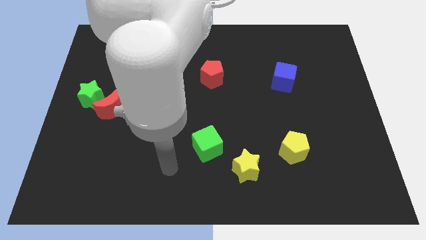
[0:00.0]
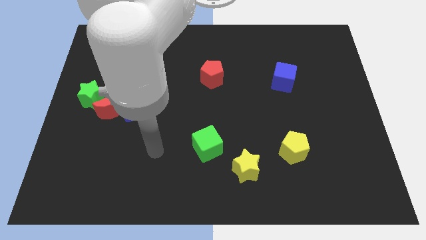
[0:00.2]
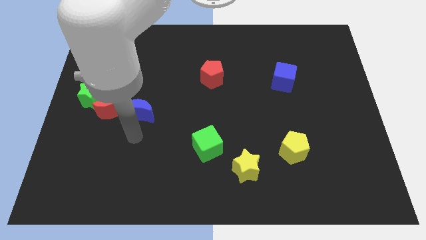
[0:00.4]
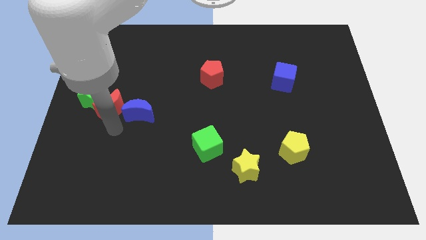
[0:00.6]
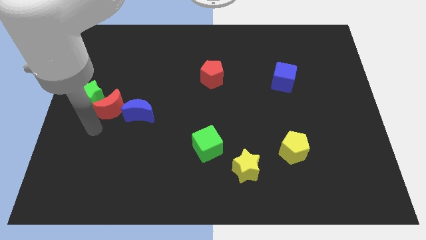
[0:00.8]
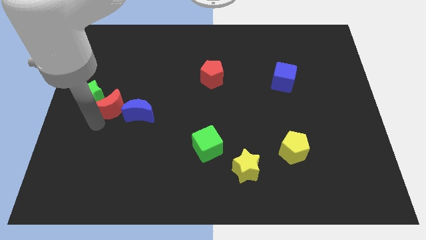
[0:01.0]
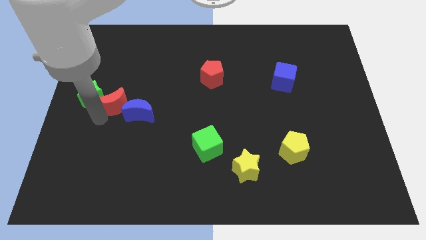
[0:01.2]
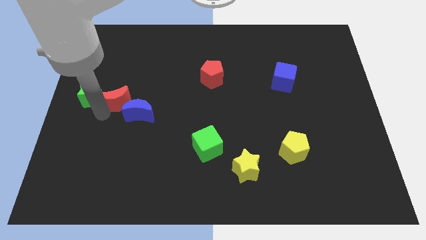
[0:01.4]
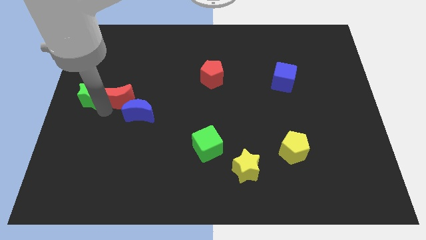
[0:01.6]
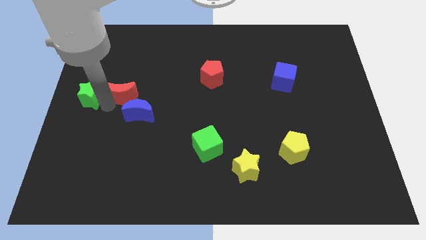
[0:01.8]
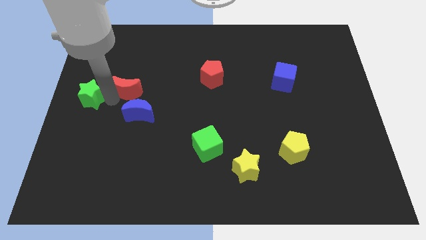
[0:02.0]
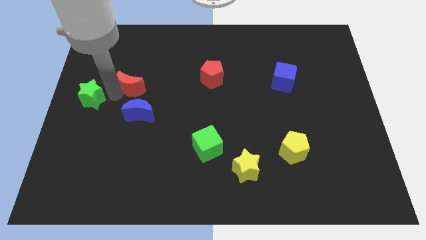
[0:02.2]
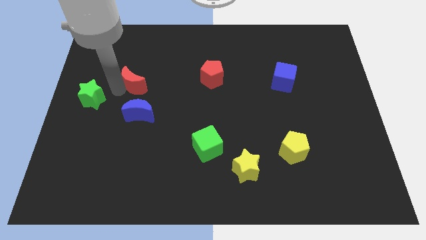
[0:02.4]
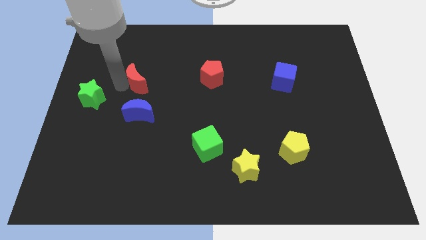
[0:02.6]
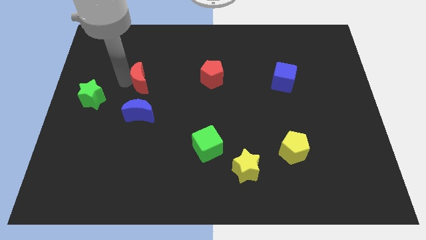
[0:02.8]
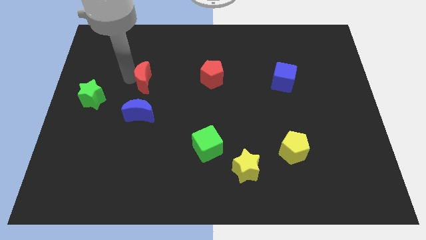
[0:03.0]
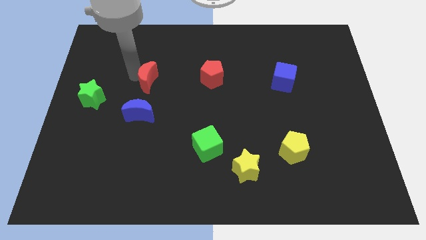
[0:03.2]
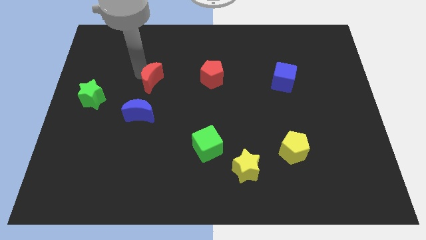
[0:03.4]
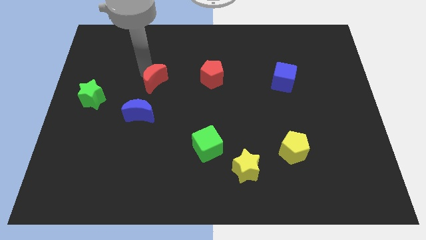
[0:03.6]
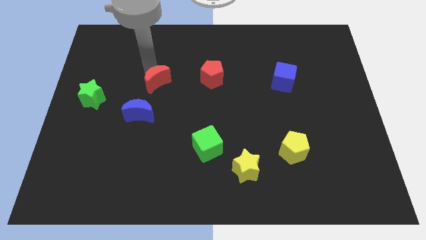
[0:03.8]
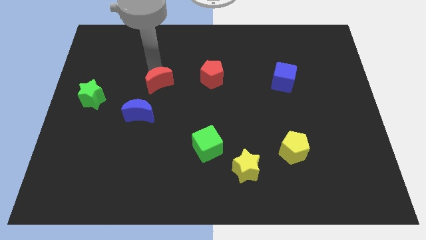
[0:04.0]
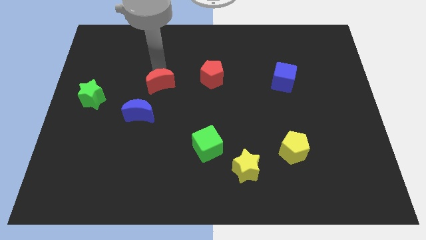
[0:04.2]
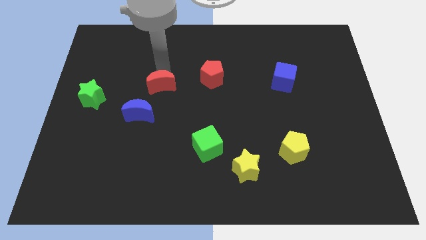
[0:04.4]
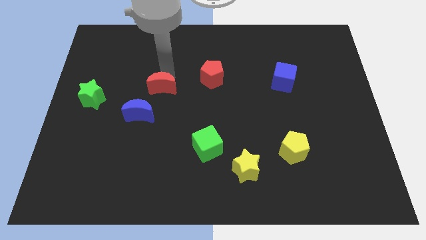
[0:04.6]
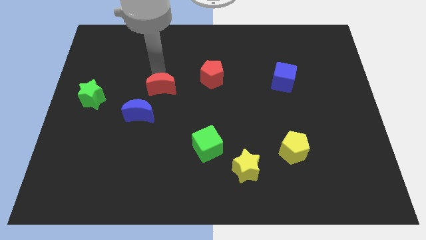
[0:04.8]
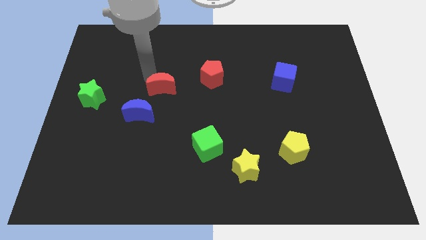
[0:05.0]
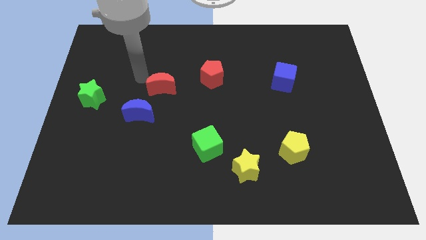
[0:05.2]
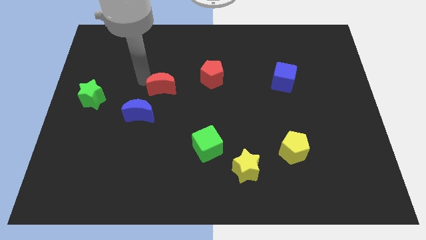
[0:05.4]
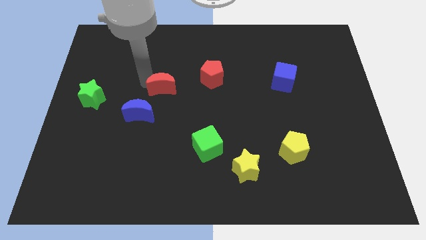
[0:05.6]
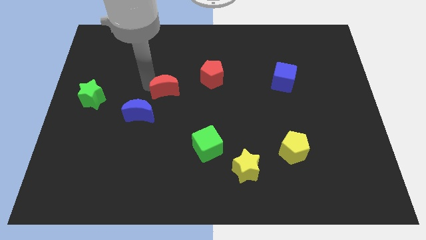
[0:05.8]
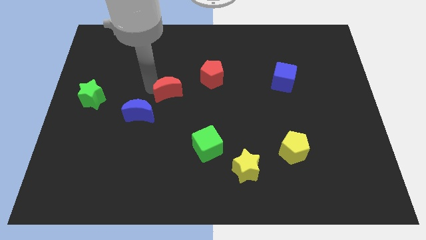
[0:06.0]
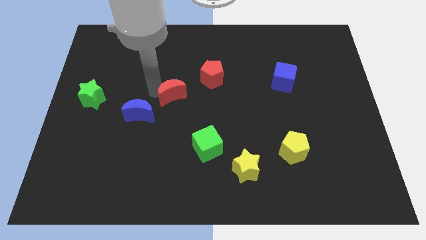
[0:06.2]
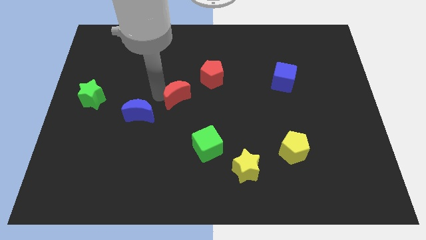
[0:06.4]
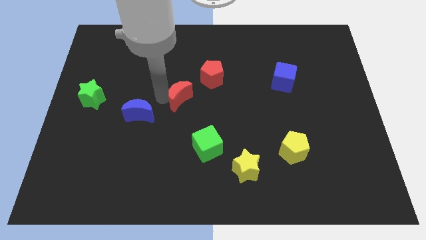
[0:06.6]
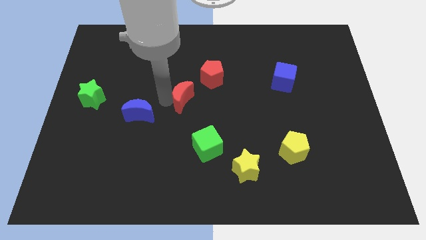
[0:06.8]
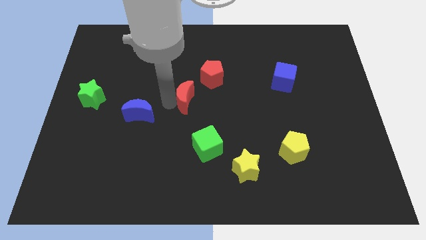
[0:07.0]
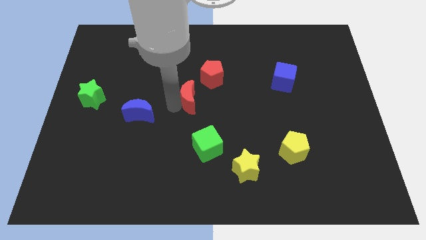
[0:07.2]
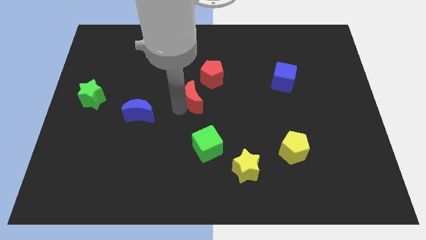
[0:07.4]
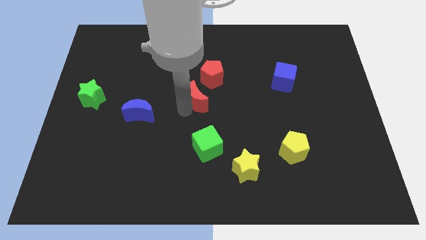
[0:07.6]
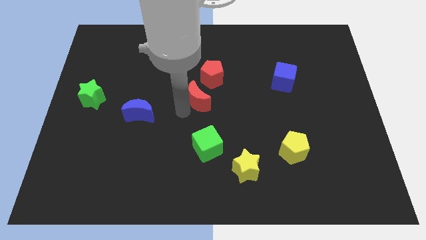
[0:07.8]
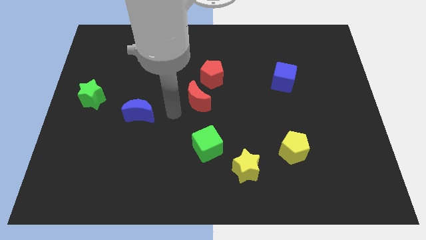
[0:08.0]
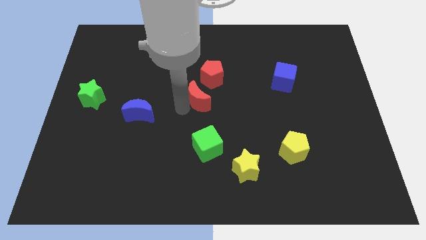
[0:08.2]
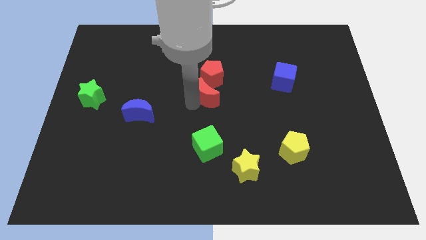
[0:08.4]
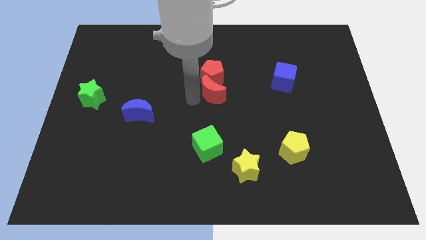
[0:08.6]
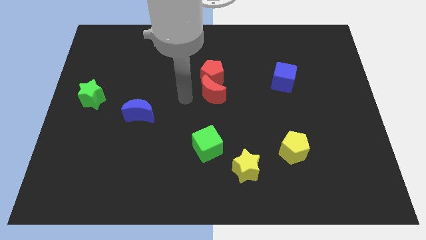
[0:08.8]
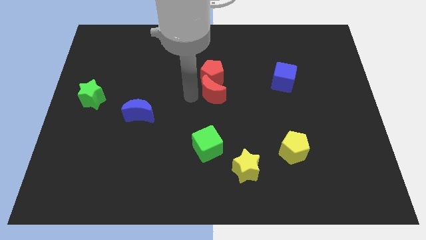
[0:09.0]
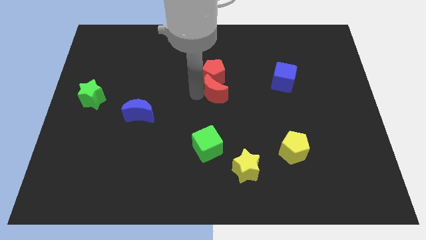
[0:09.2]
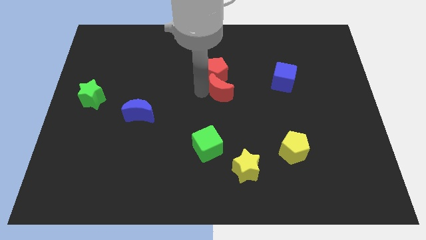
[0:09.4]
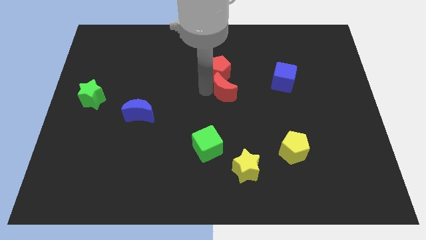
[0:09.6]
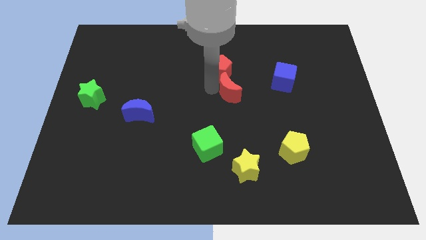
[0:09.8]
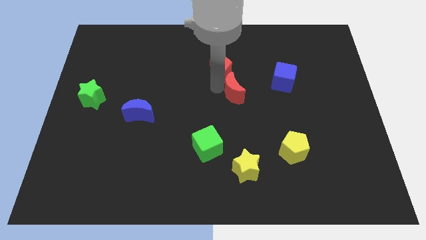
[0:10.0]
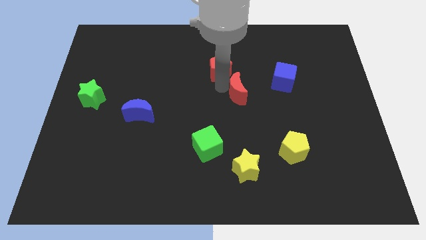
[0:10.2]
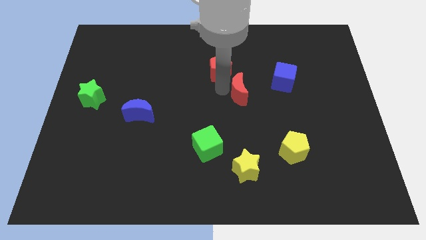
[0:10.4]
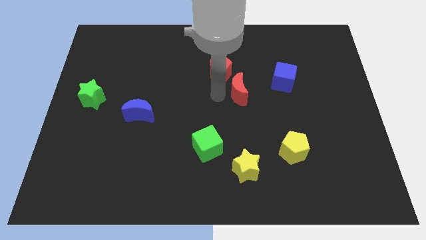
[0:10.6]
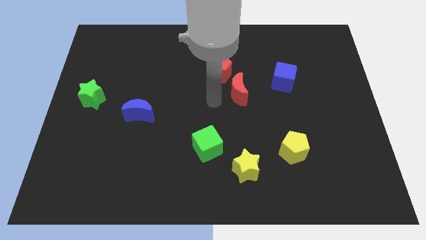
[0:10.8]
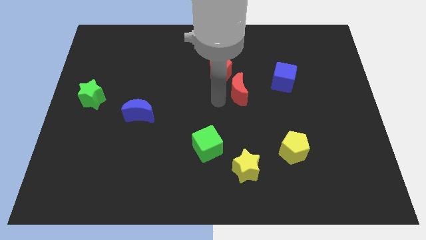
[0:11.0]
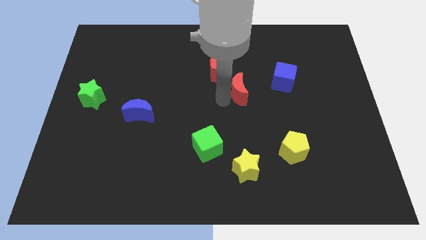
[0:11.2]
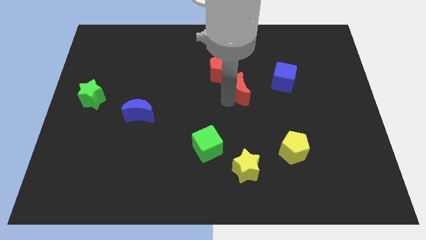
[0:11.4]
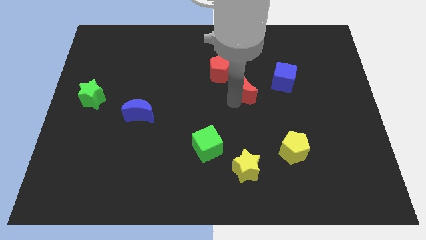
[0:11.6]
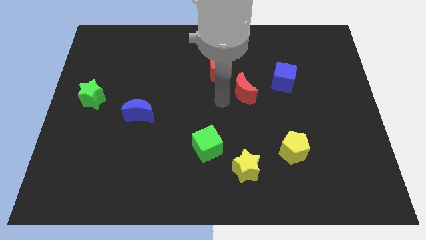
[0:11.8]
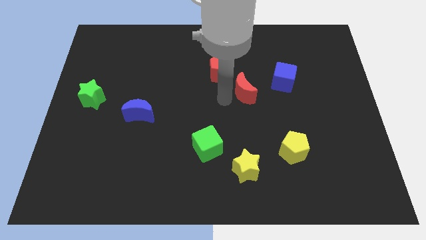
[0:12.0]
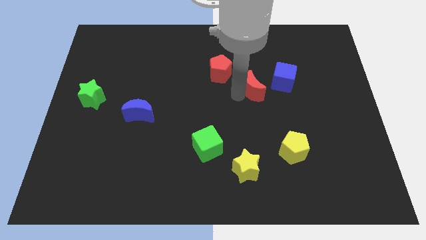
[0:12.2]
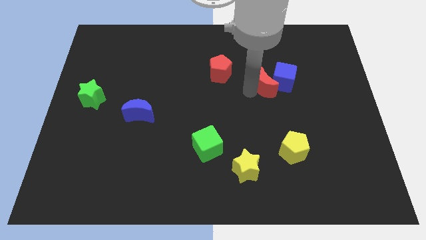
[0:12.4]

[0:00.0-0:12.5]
move the red moon close to the blue cube
